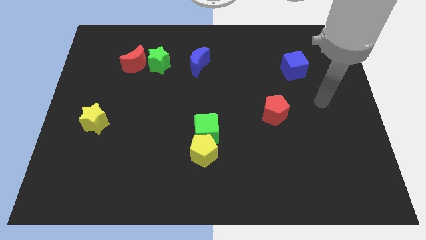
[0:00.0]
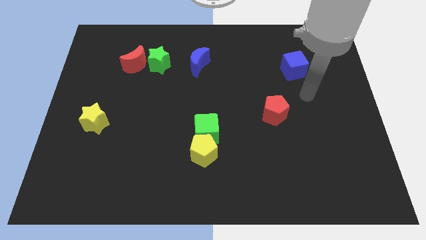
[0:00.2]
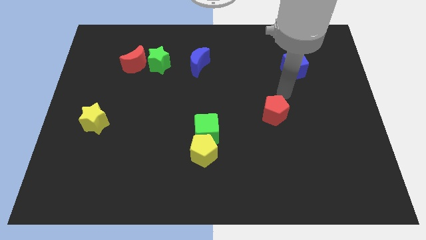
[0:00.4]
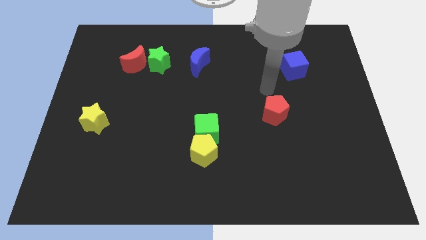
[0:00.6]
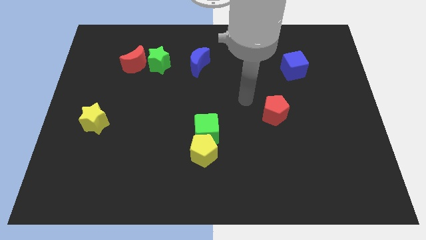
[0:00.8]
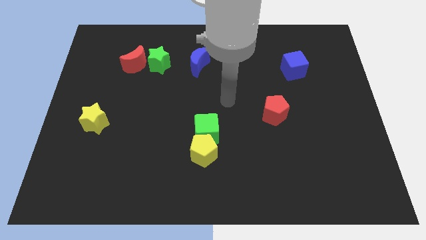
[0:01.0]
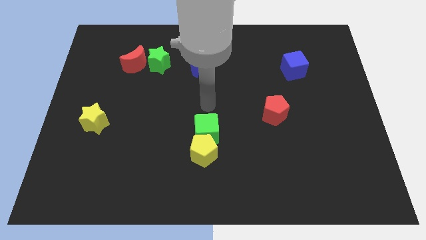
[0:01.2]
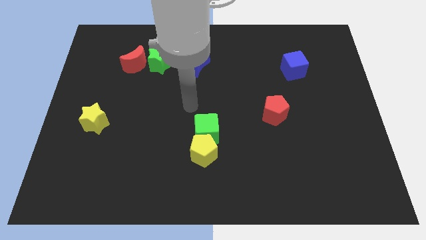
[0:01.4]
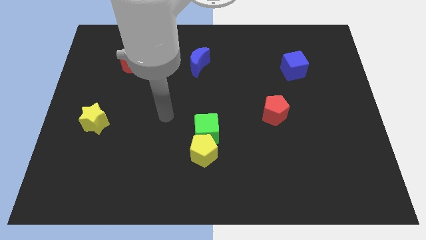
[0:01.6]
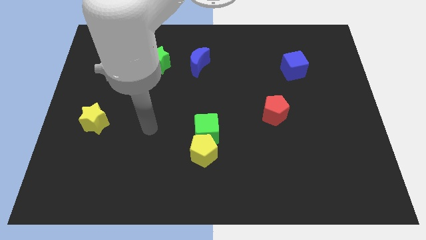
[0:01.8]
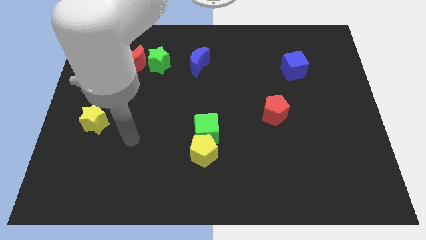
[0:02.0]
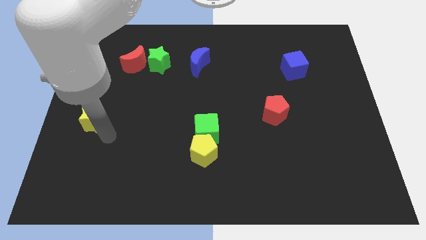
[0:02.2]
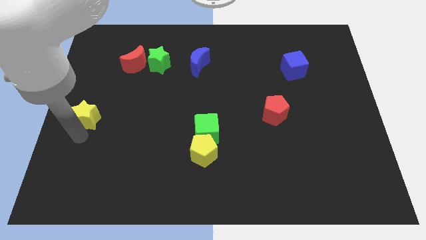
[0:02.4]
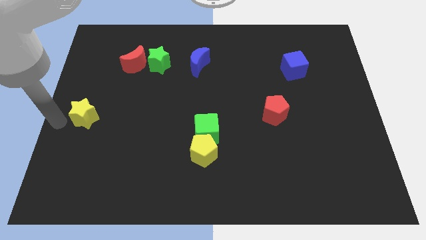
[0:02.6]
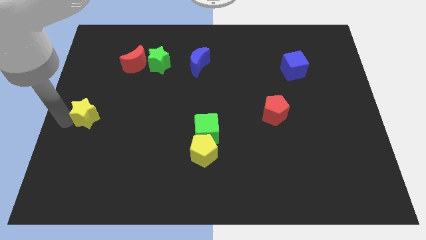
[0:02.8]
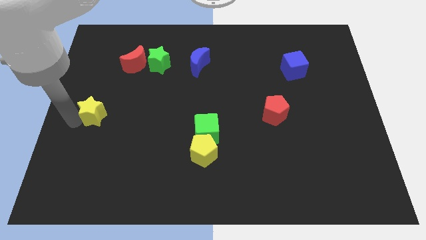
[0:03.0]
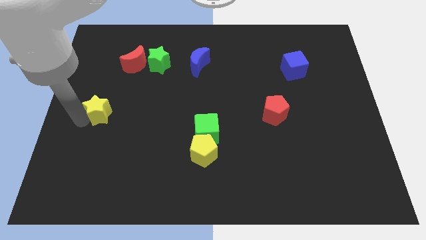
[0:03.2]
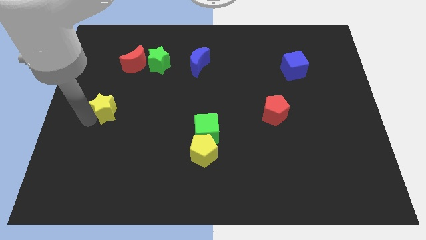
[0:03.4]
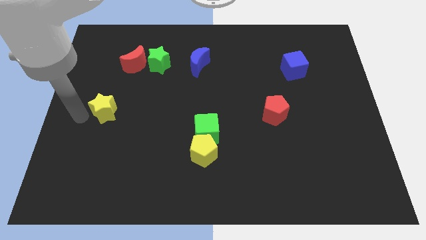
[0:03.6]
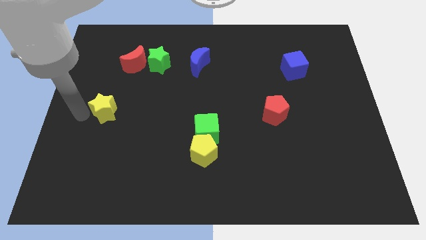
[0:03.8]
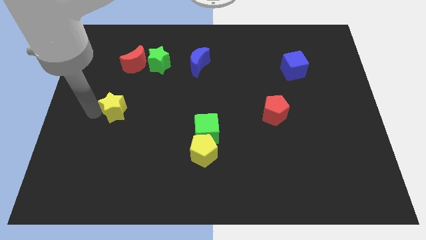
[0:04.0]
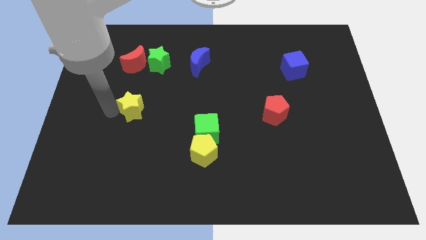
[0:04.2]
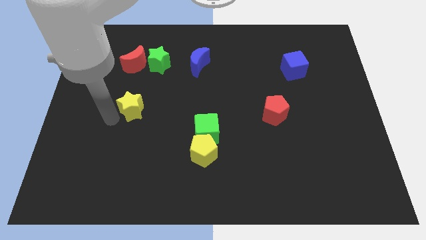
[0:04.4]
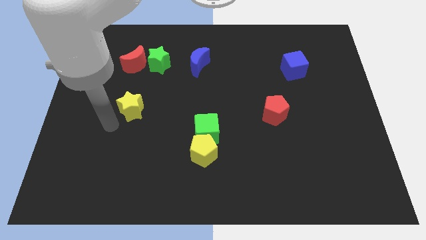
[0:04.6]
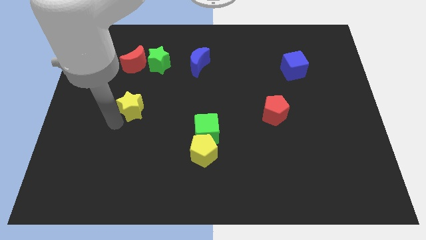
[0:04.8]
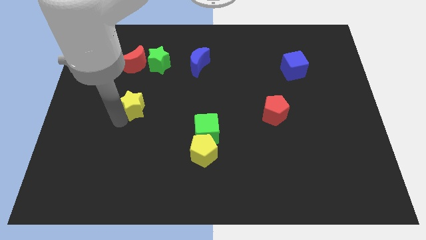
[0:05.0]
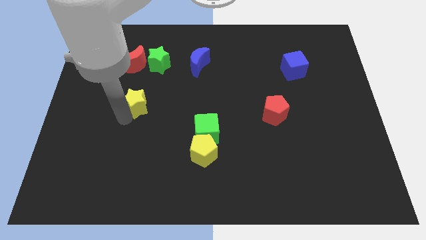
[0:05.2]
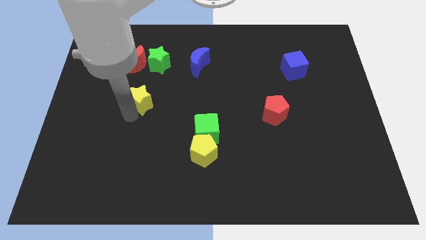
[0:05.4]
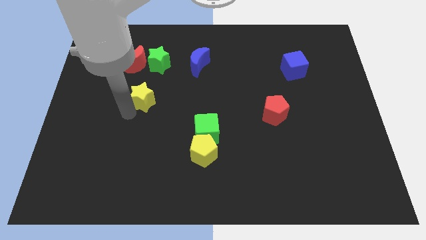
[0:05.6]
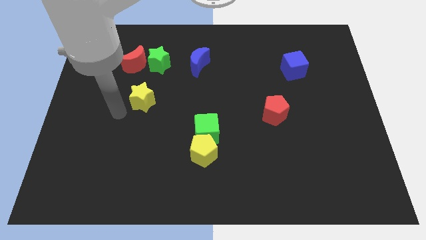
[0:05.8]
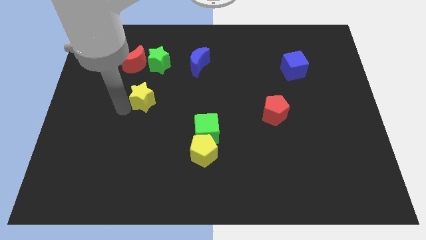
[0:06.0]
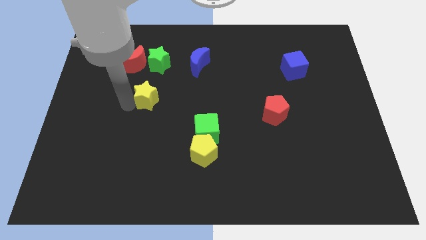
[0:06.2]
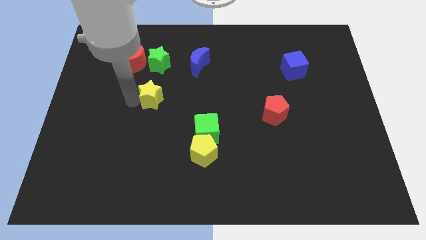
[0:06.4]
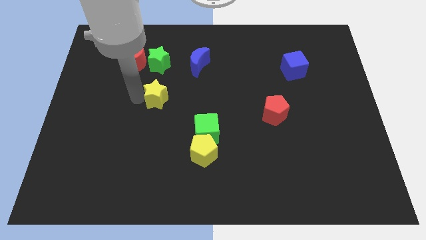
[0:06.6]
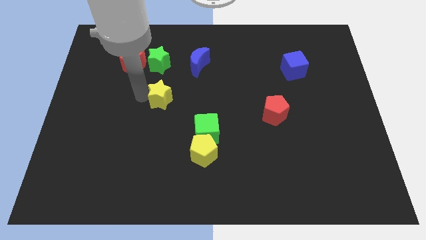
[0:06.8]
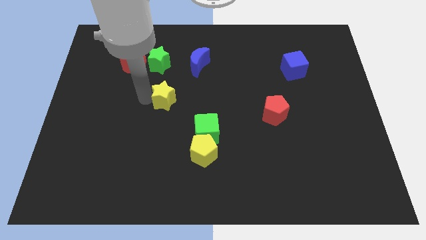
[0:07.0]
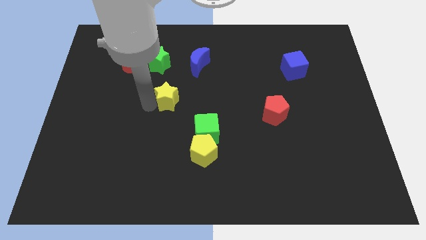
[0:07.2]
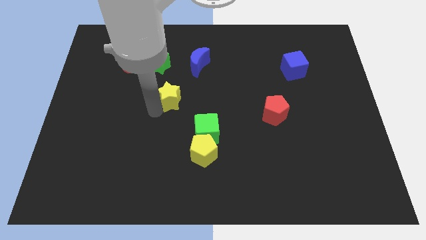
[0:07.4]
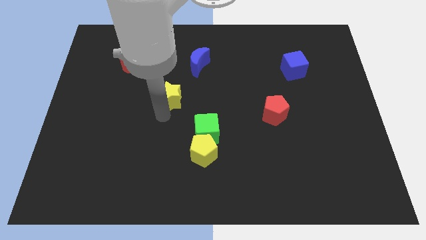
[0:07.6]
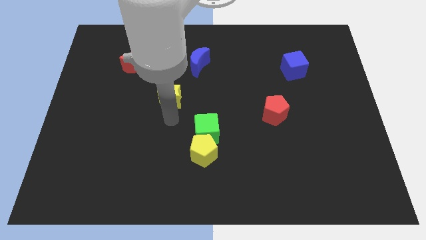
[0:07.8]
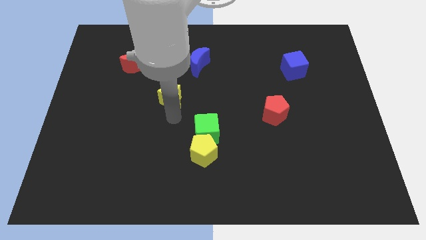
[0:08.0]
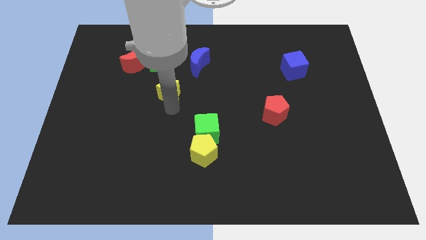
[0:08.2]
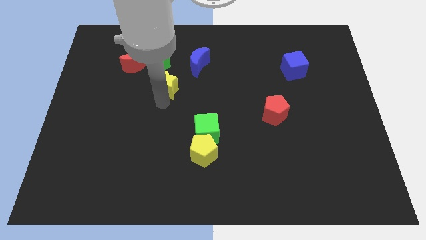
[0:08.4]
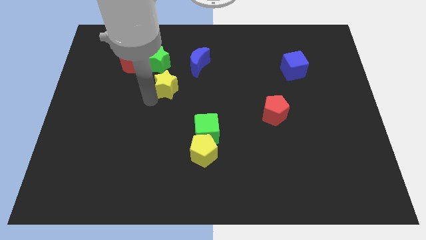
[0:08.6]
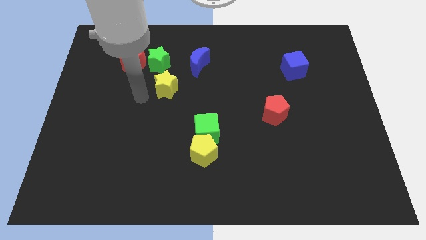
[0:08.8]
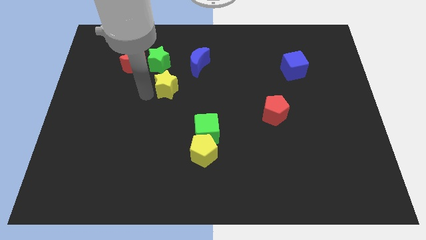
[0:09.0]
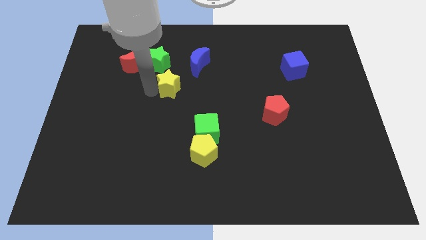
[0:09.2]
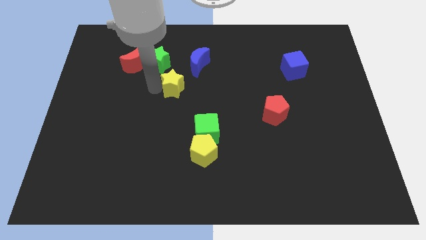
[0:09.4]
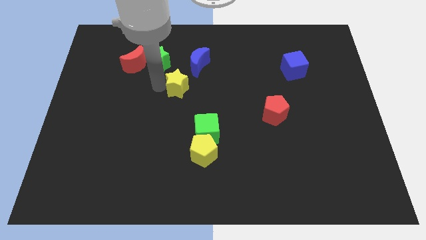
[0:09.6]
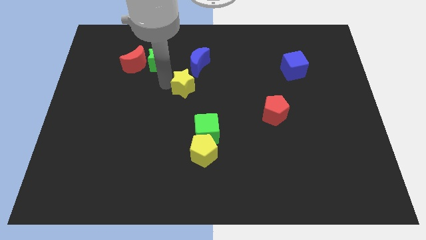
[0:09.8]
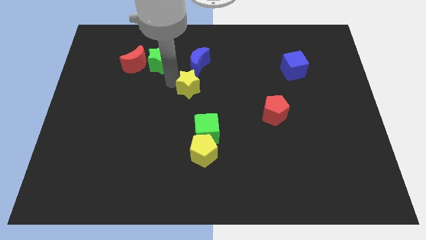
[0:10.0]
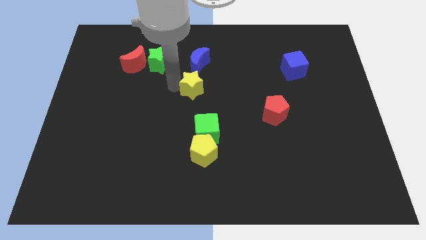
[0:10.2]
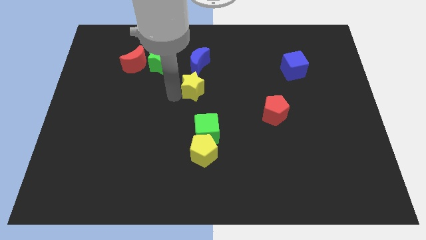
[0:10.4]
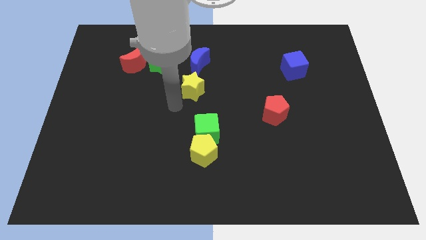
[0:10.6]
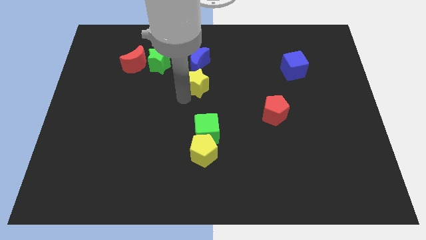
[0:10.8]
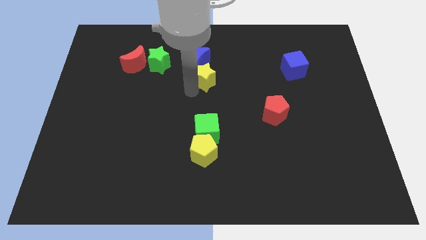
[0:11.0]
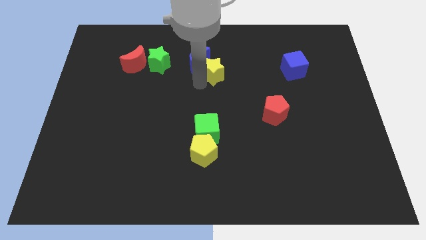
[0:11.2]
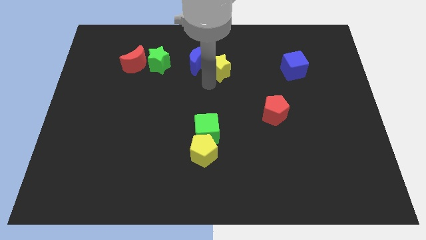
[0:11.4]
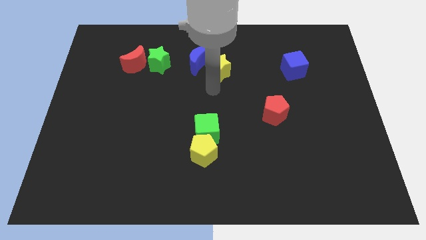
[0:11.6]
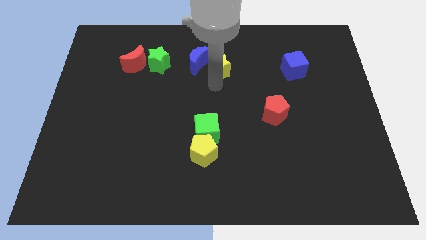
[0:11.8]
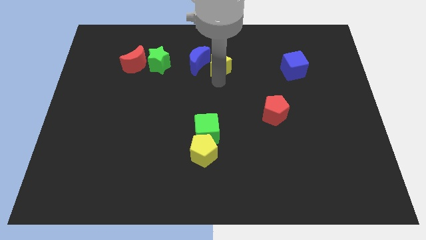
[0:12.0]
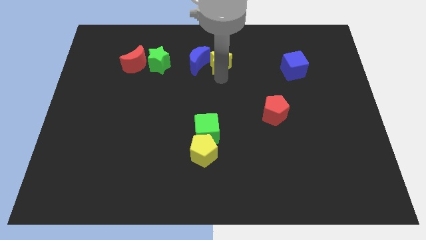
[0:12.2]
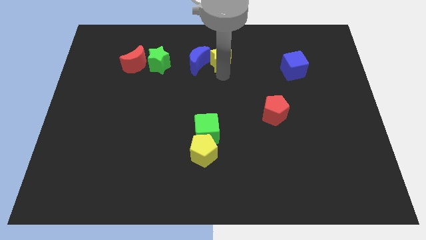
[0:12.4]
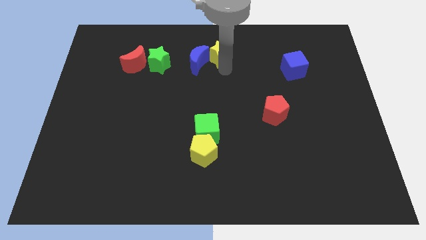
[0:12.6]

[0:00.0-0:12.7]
put the yellow star to the towards your base

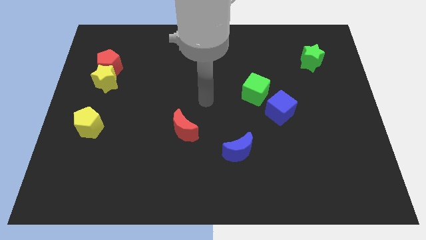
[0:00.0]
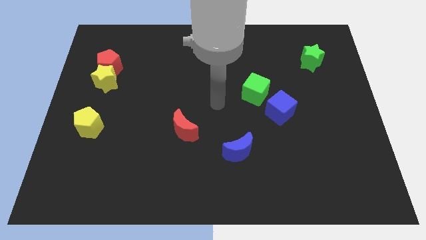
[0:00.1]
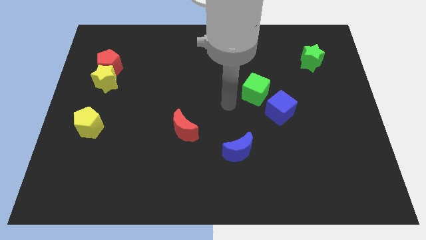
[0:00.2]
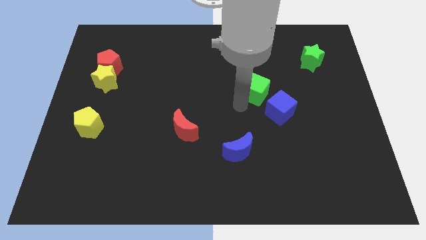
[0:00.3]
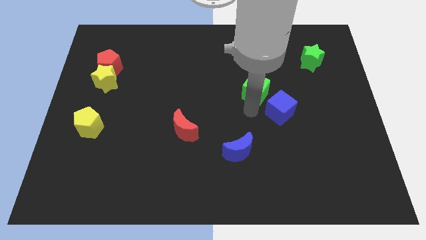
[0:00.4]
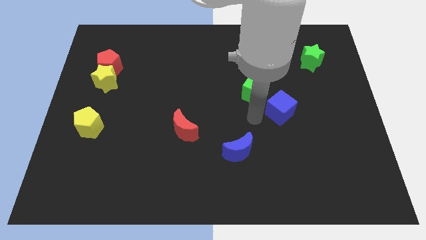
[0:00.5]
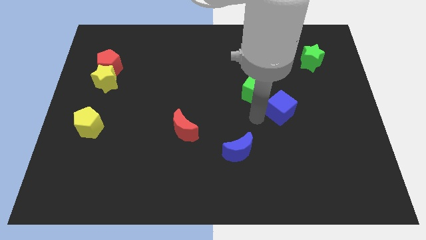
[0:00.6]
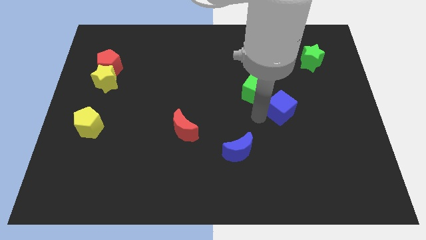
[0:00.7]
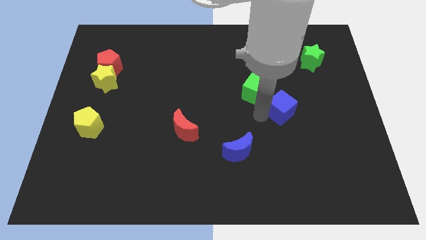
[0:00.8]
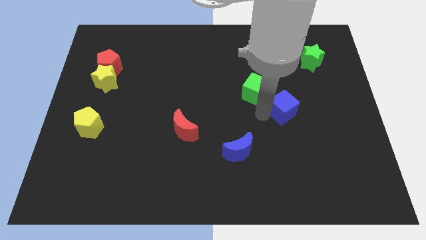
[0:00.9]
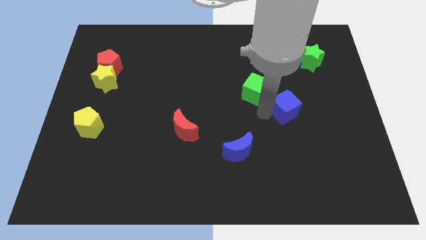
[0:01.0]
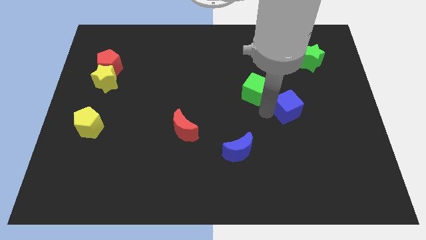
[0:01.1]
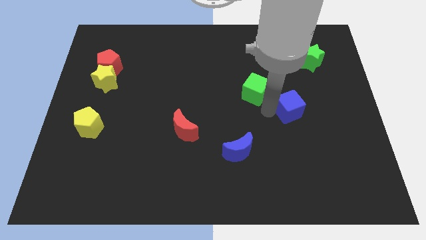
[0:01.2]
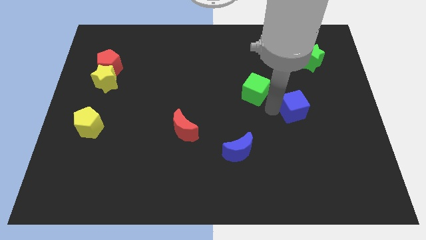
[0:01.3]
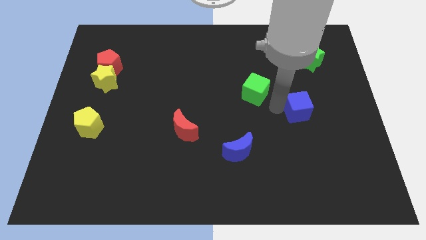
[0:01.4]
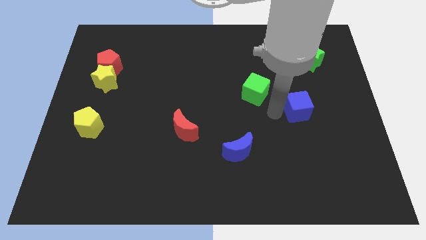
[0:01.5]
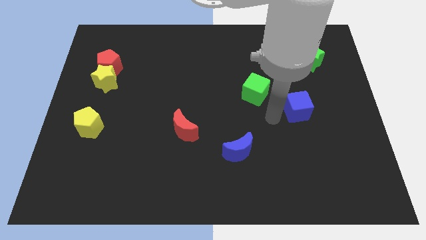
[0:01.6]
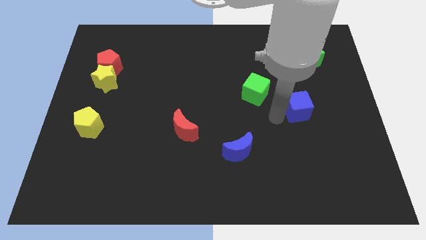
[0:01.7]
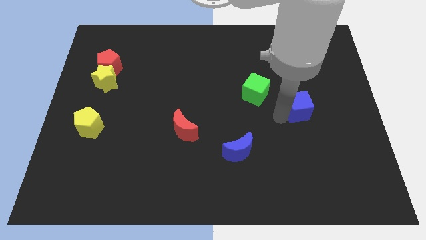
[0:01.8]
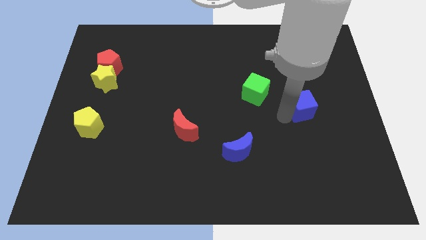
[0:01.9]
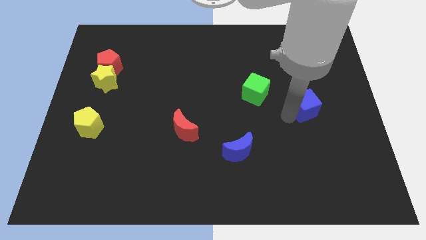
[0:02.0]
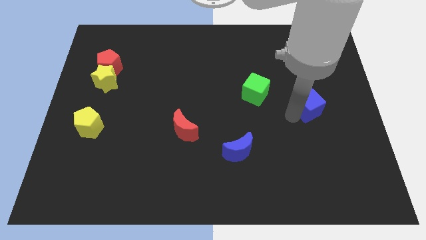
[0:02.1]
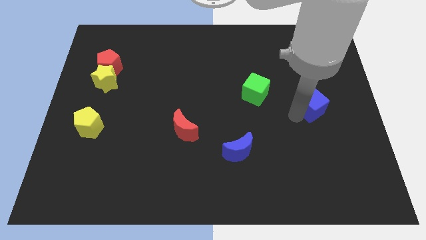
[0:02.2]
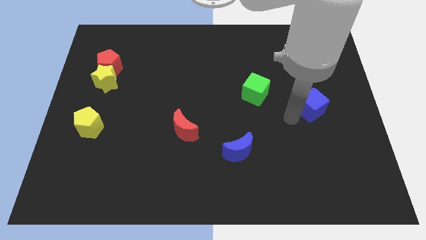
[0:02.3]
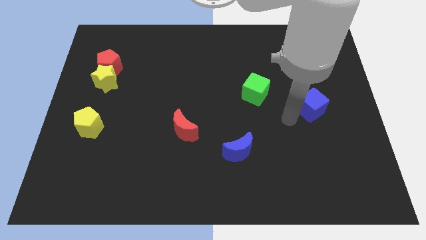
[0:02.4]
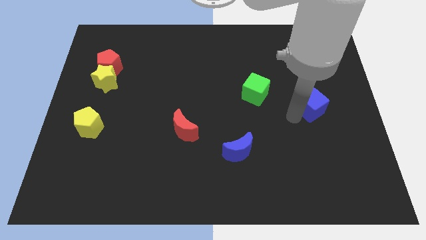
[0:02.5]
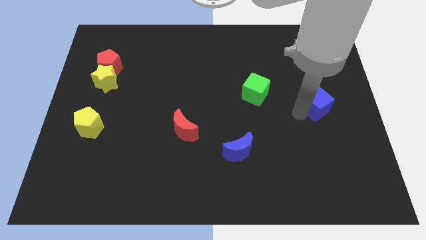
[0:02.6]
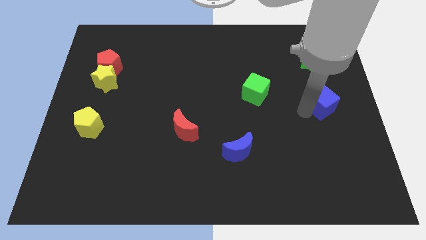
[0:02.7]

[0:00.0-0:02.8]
slide the blue cube to the center right
